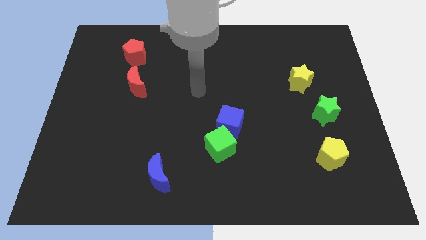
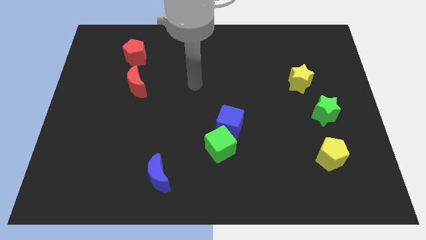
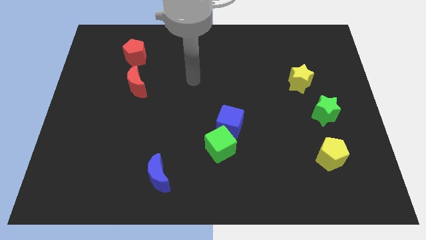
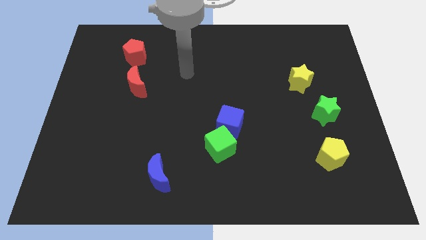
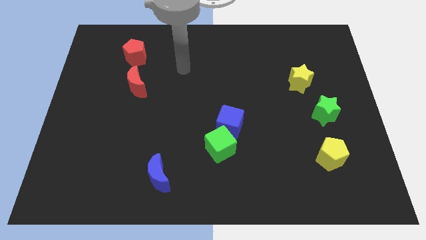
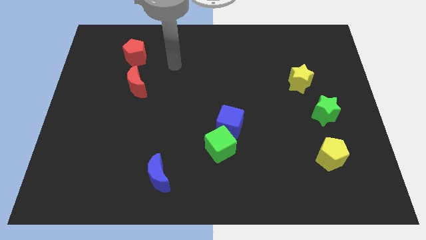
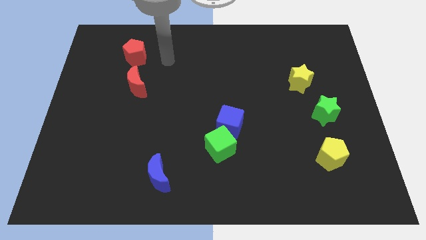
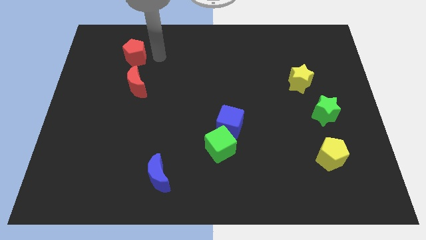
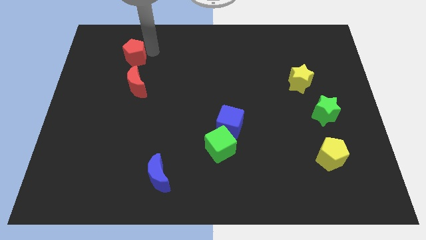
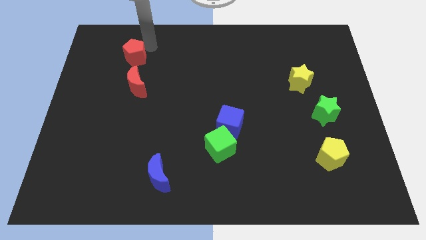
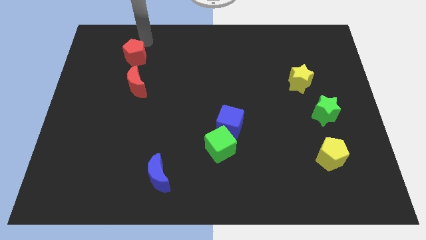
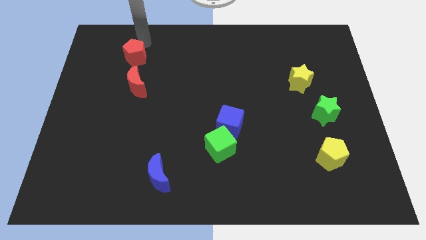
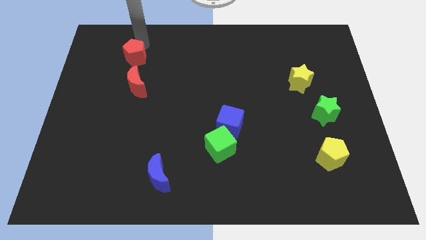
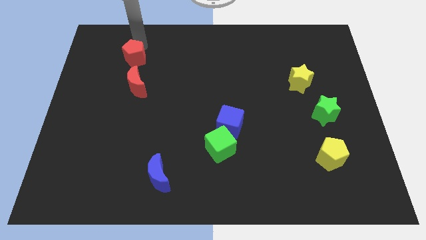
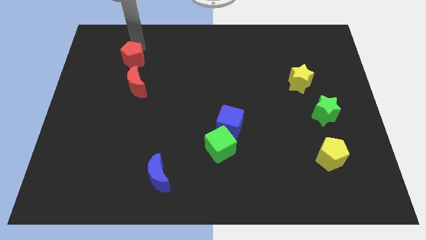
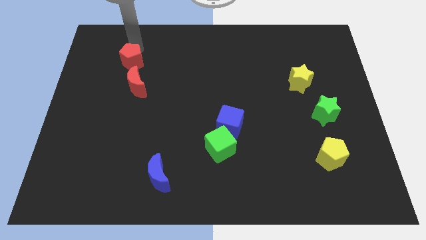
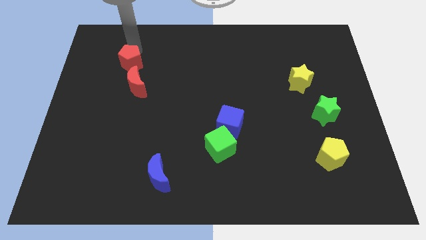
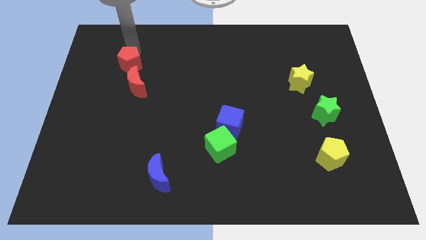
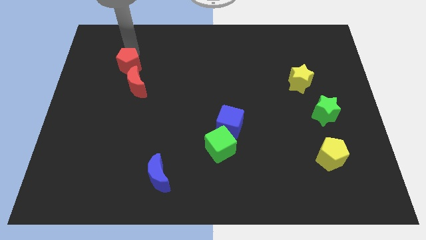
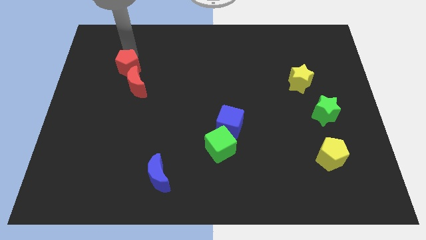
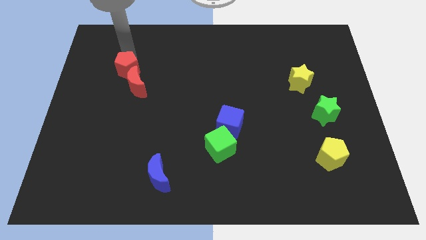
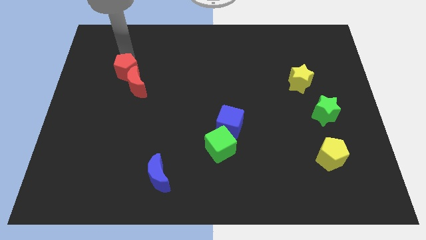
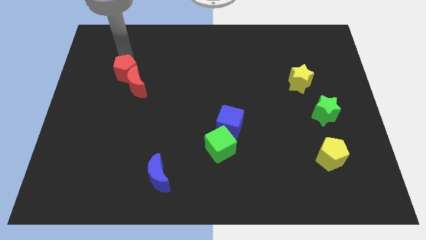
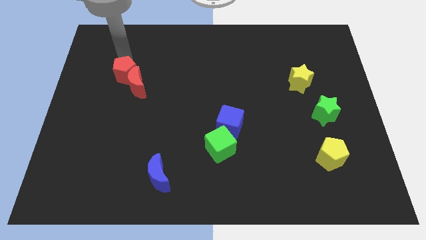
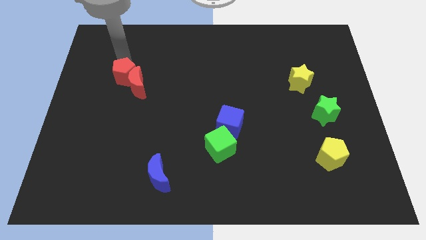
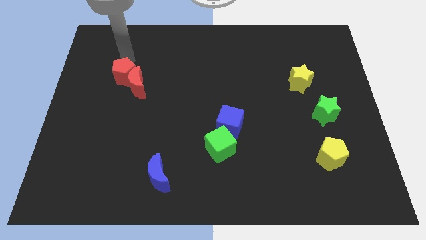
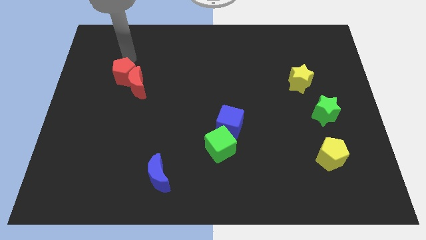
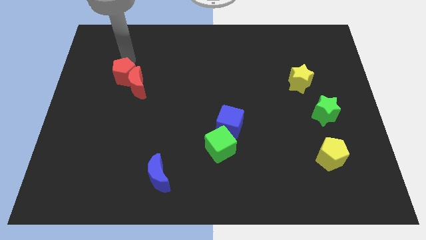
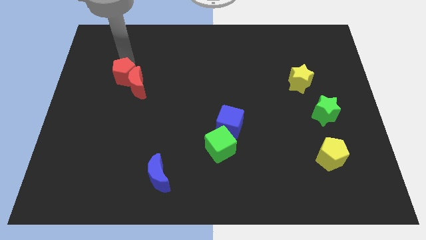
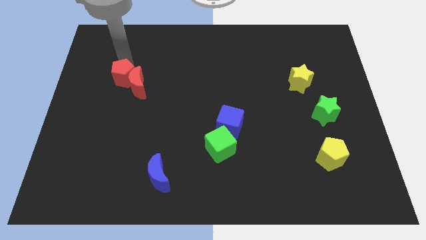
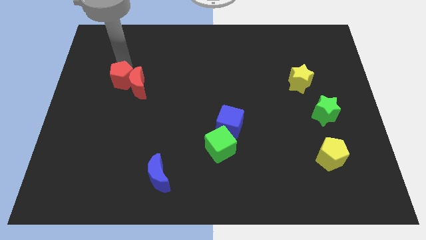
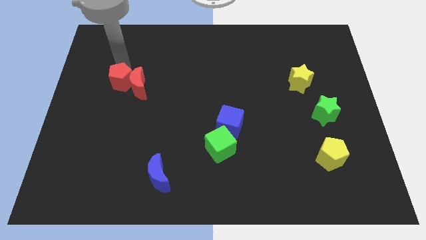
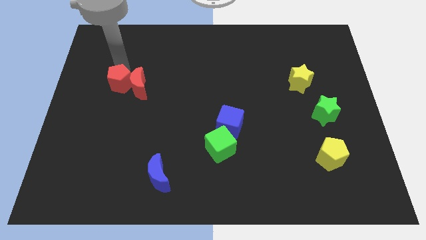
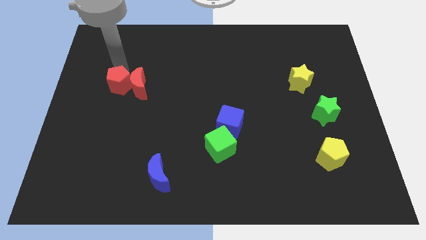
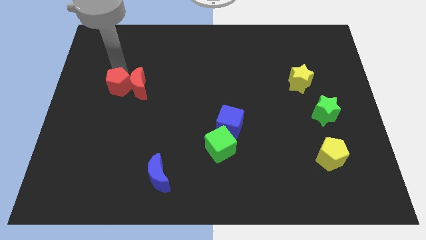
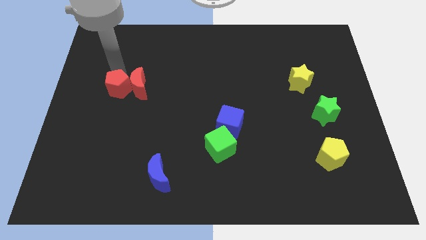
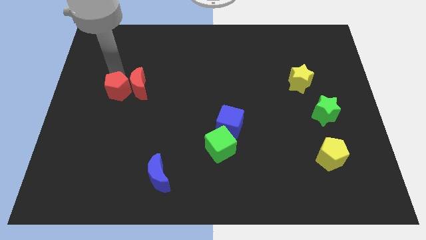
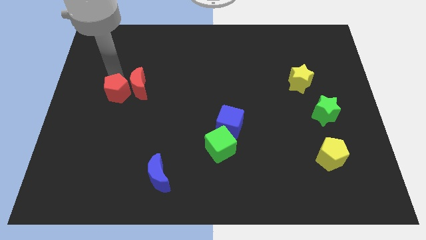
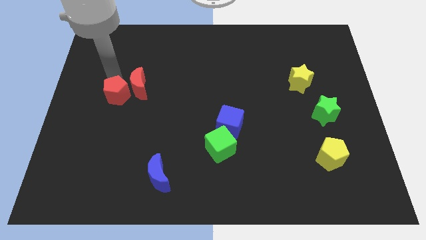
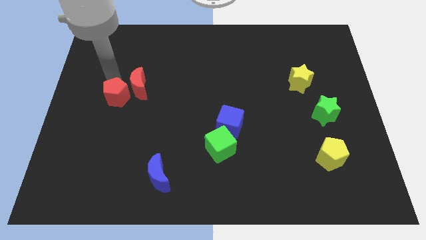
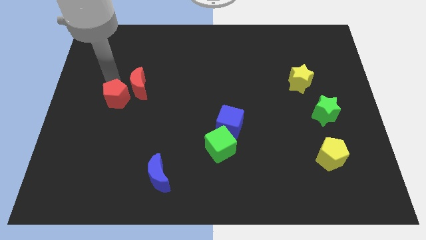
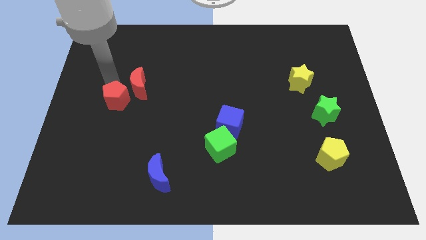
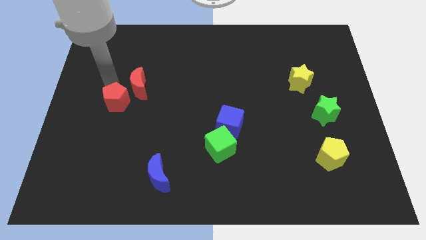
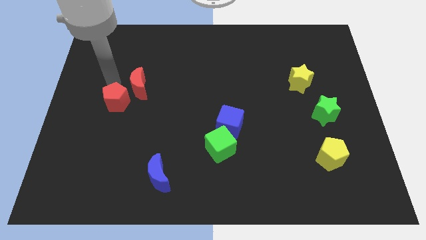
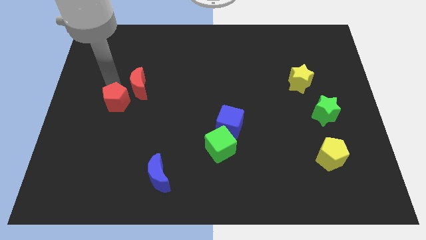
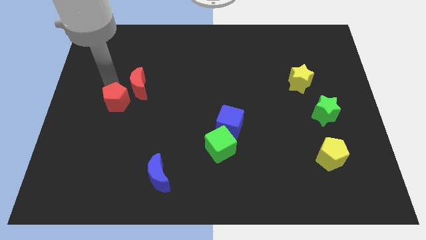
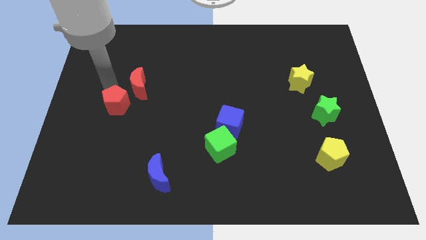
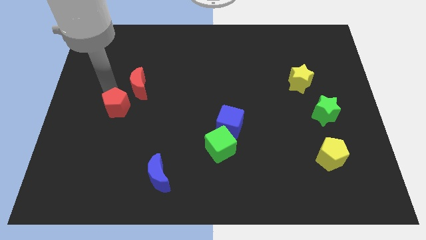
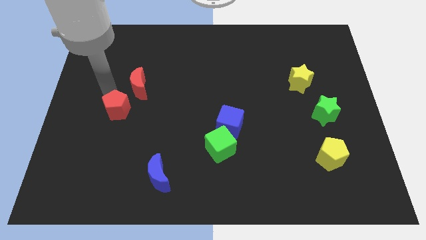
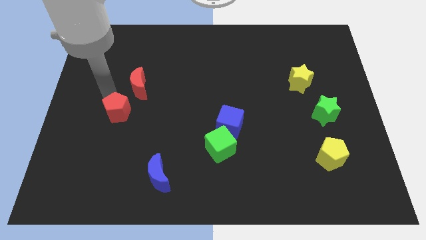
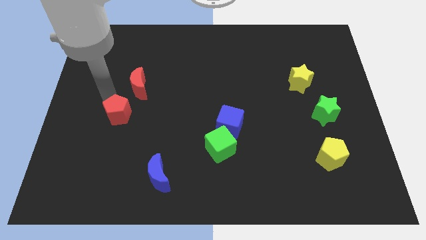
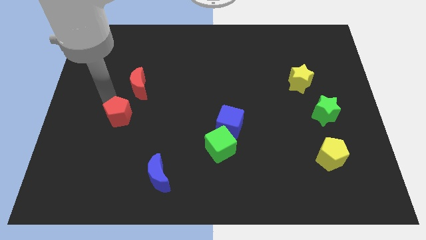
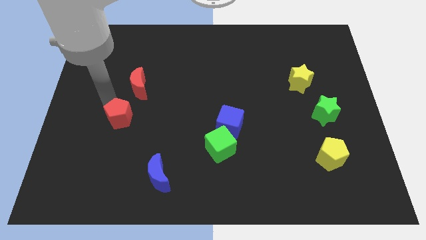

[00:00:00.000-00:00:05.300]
push the red pentagon downwards

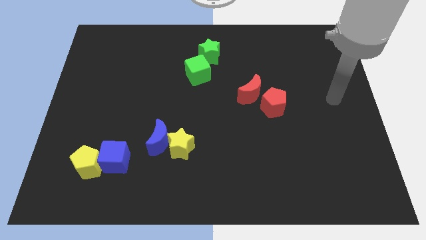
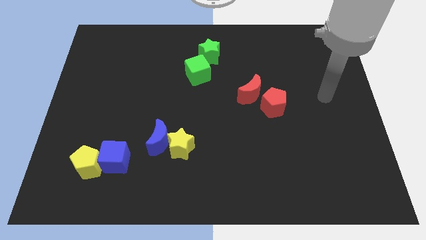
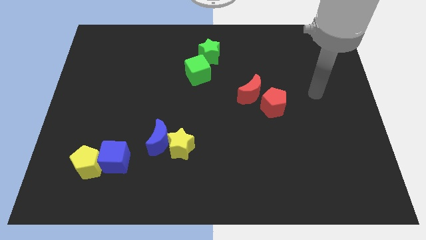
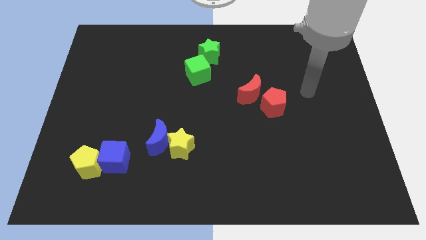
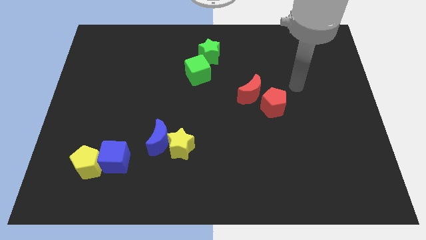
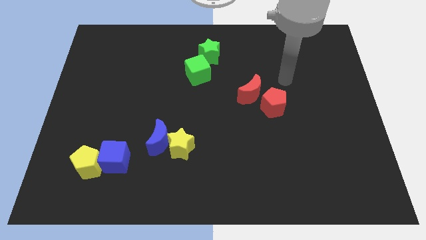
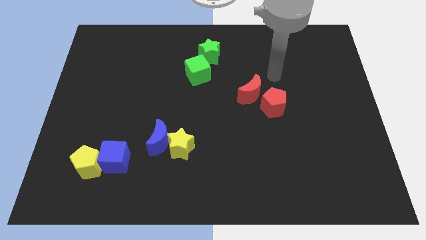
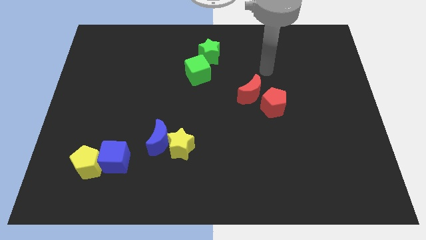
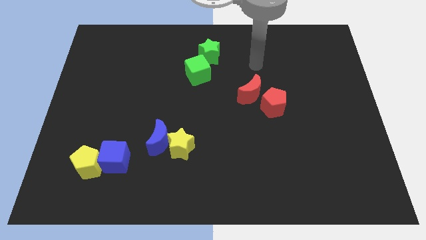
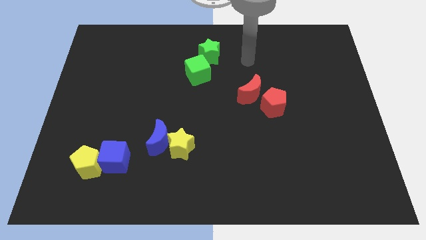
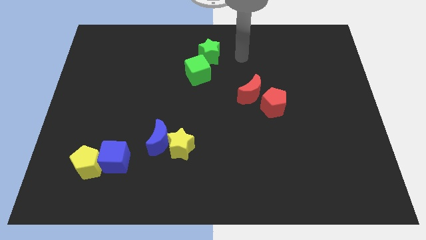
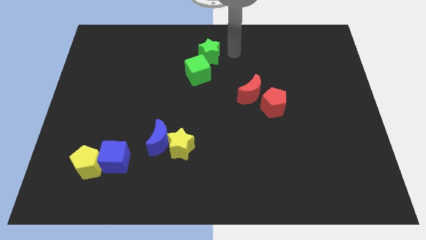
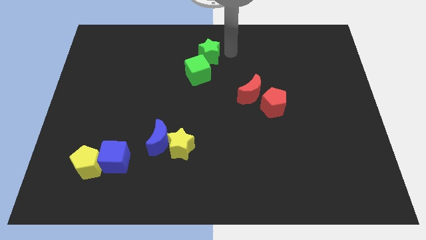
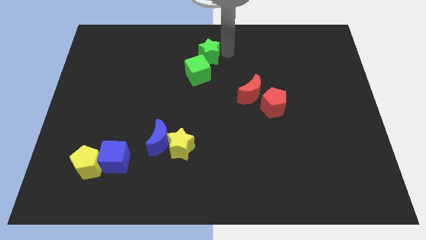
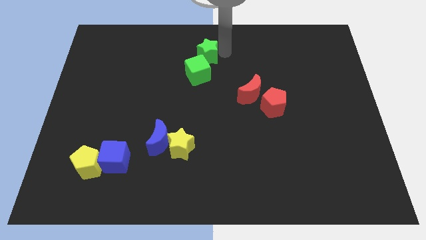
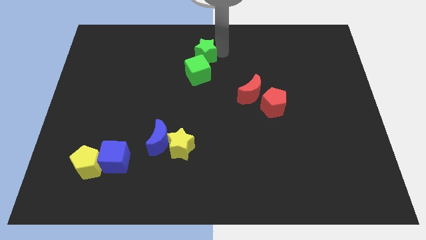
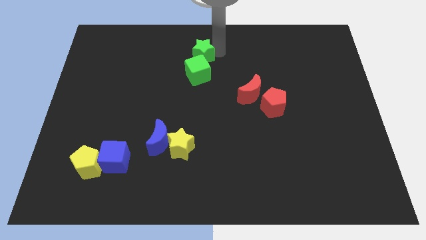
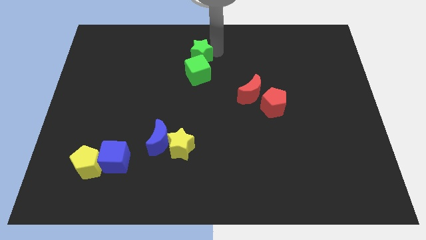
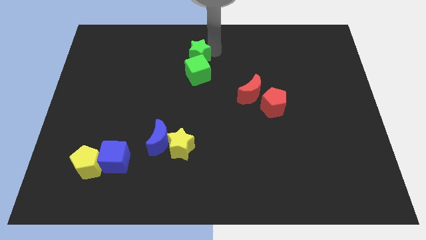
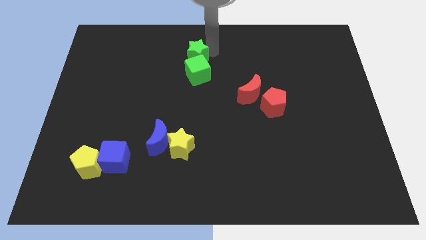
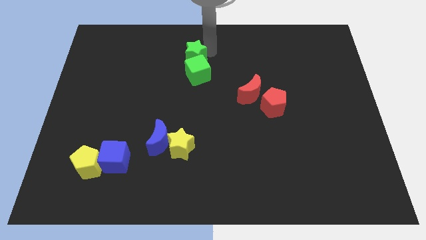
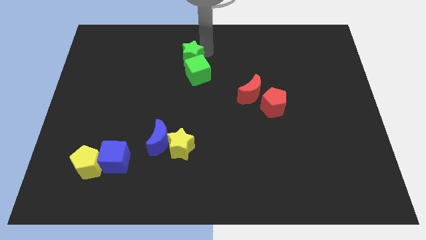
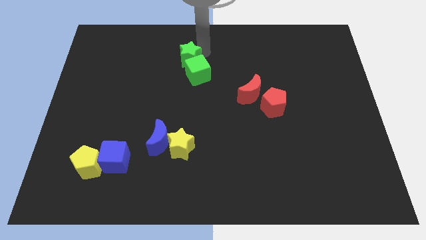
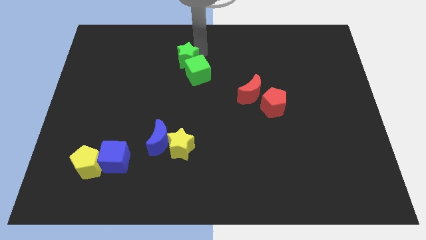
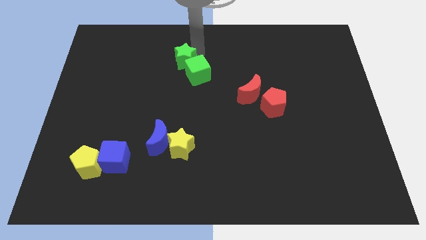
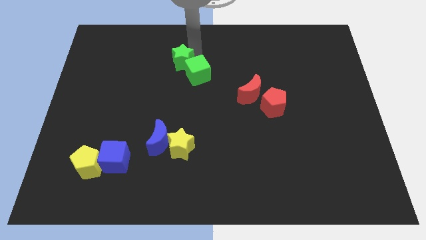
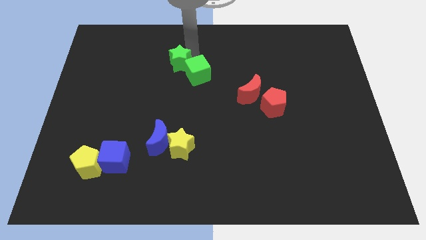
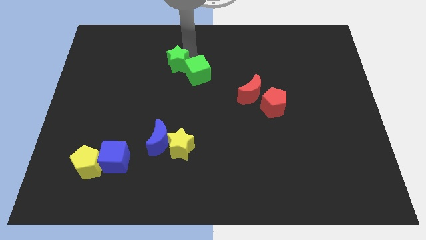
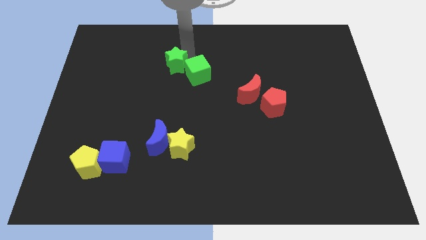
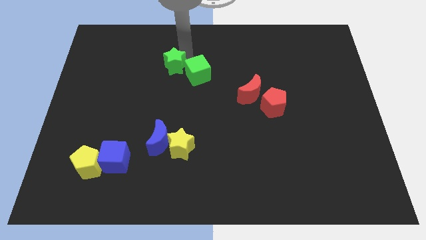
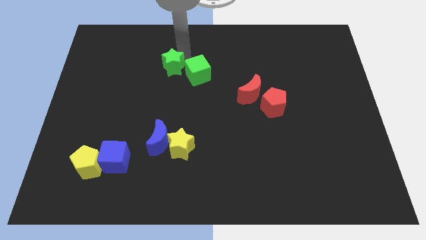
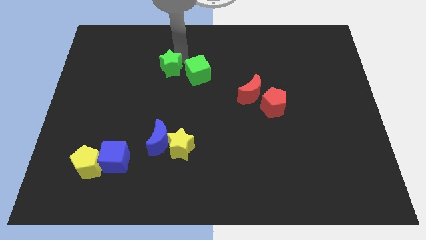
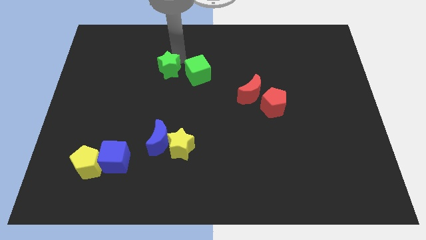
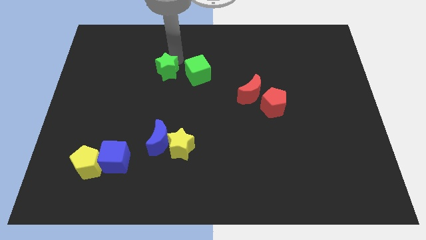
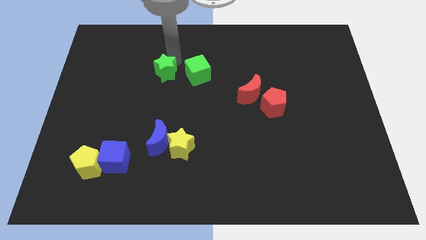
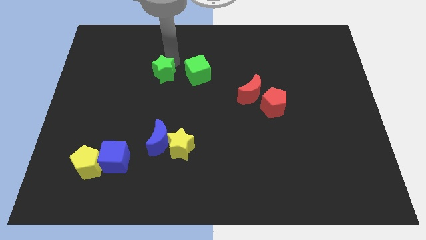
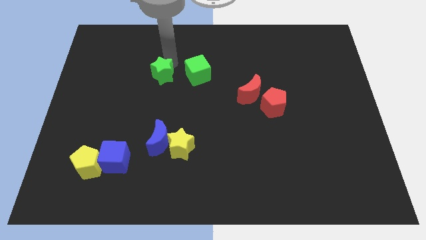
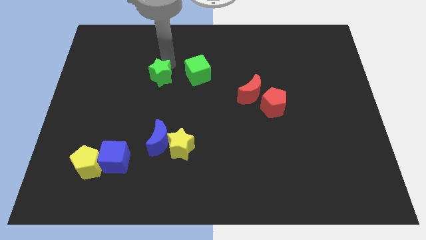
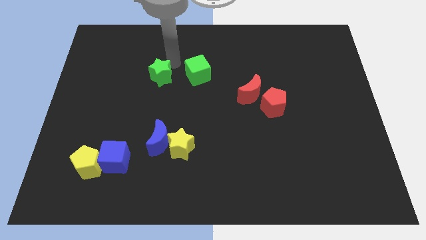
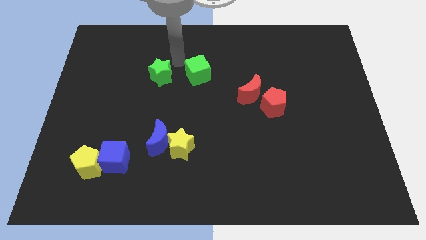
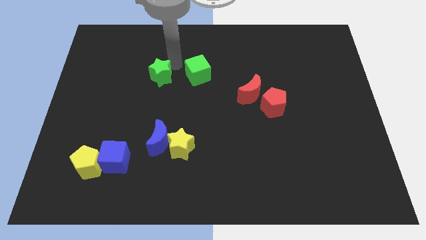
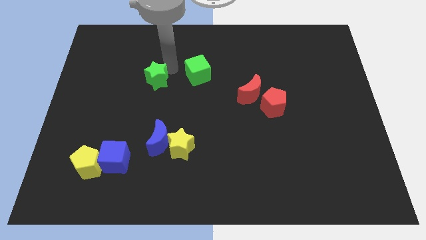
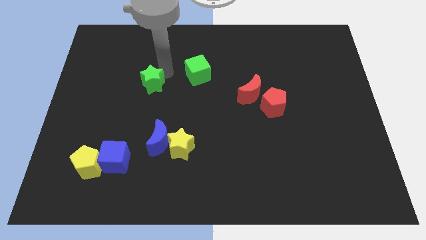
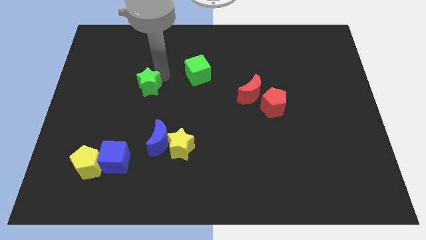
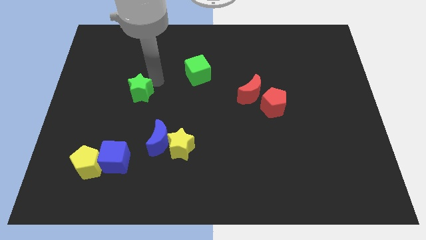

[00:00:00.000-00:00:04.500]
move the green star downwards and then left
